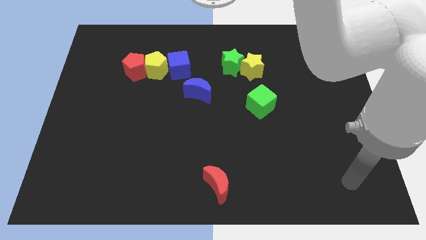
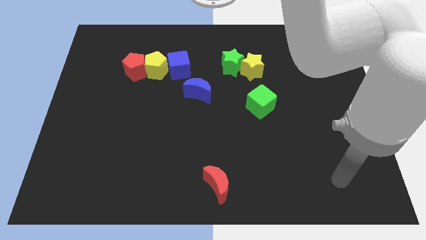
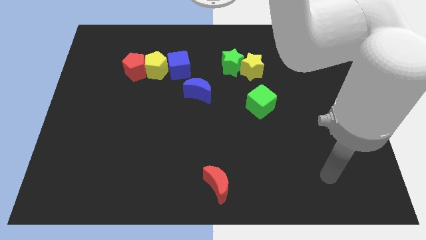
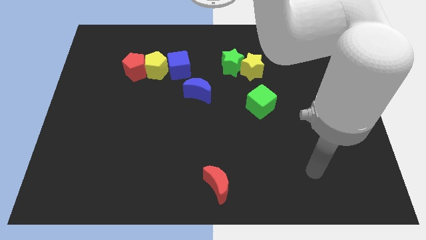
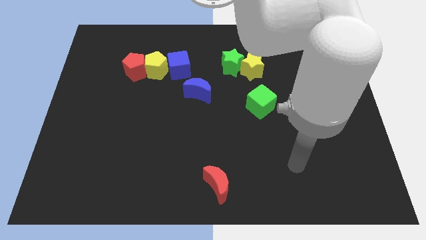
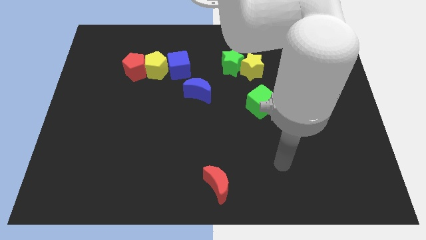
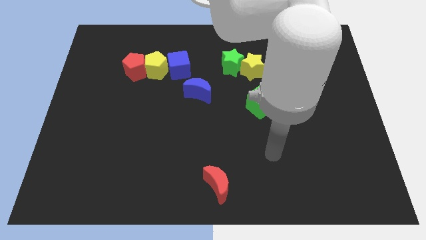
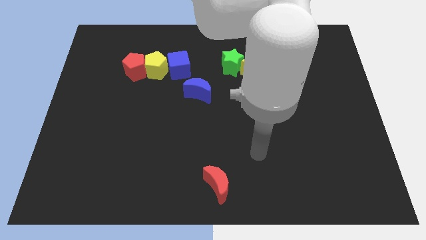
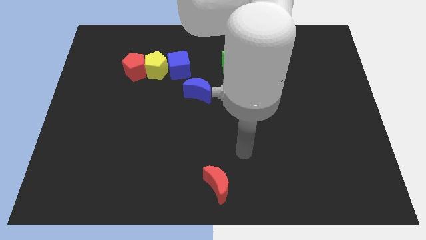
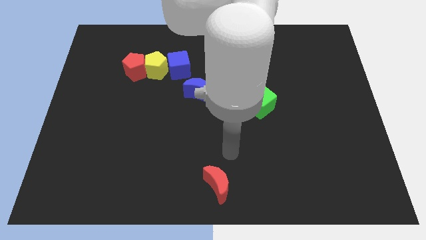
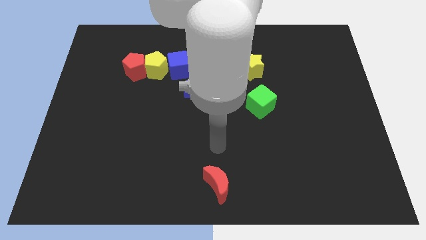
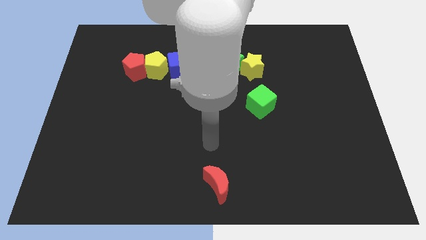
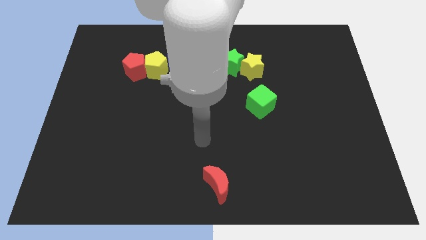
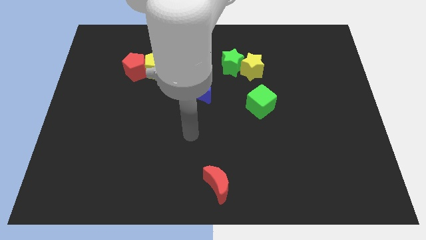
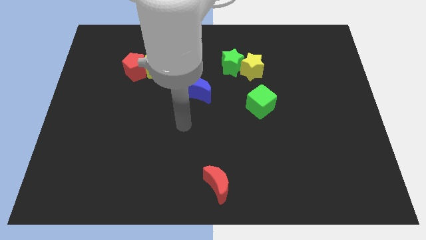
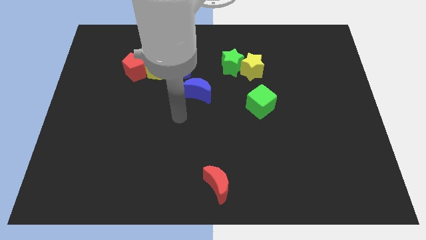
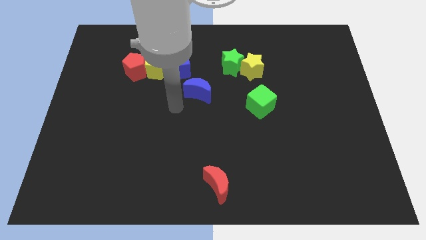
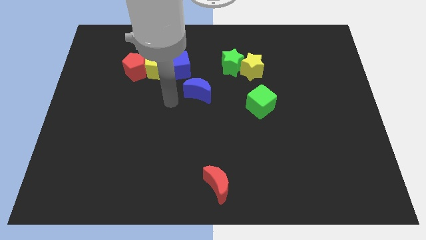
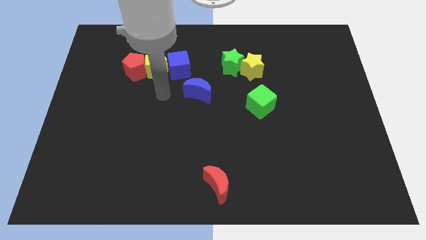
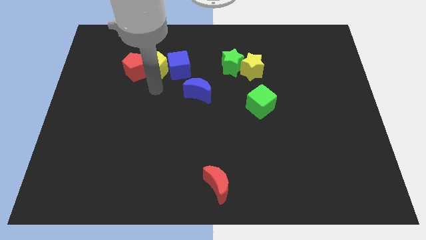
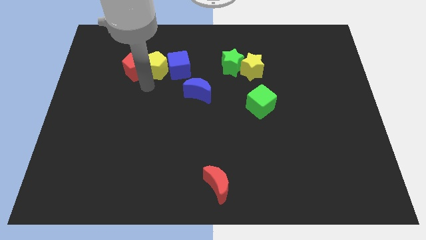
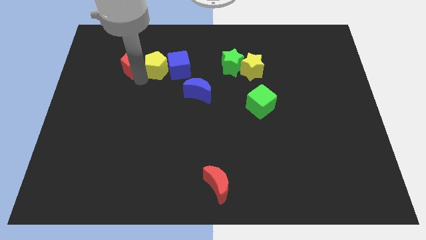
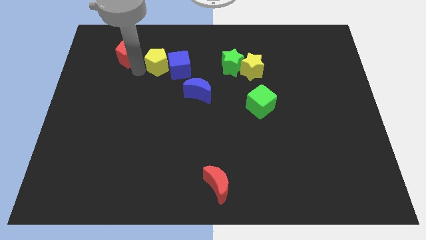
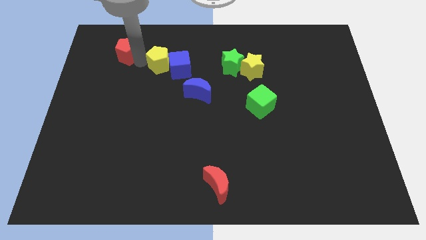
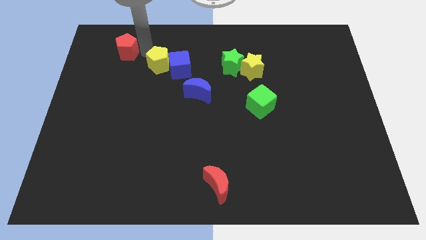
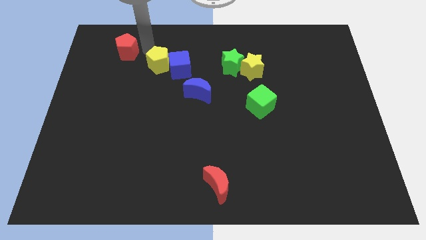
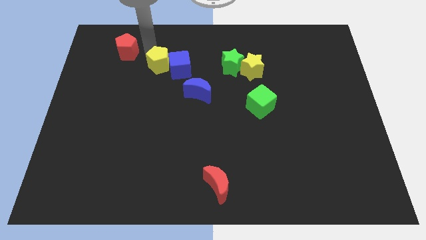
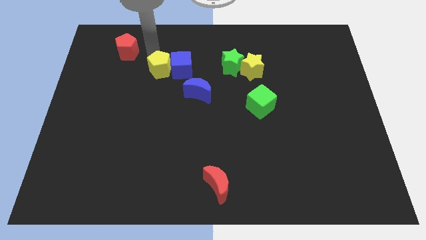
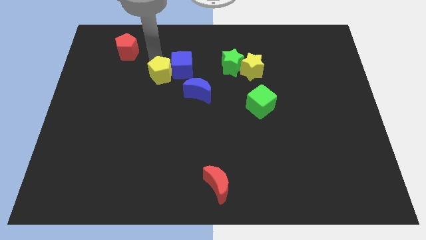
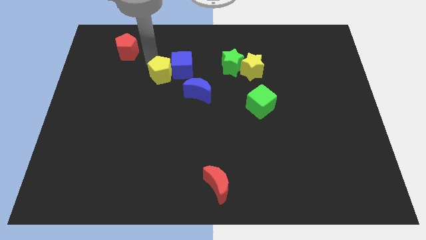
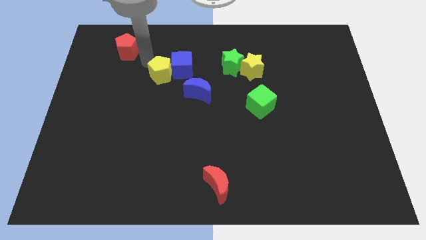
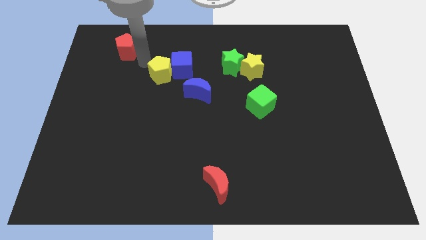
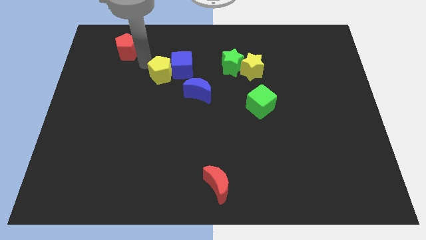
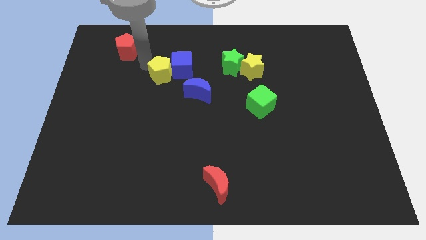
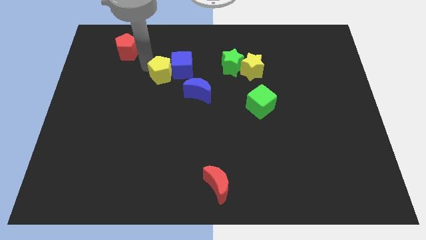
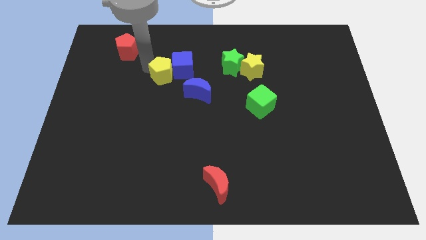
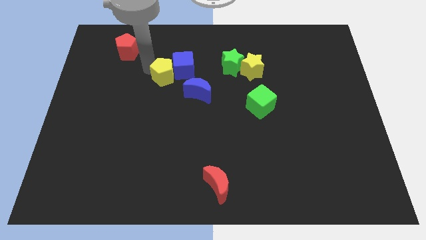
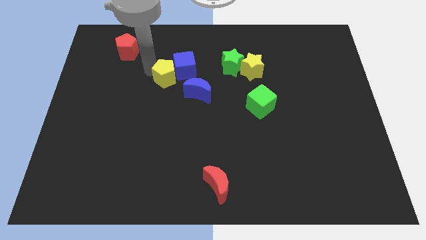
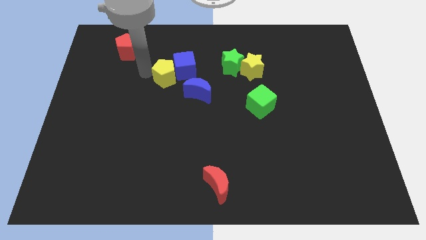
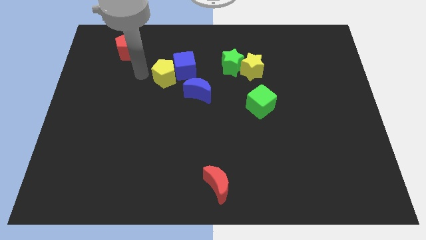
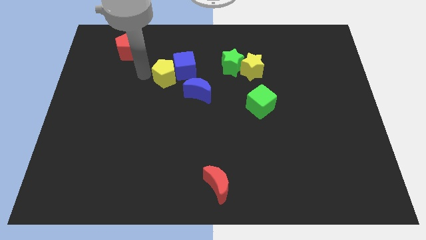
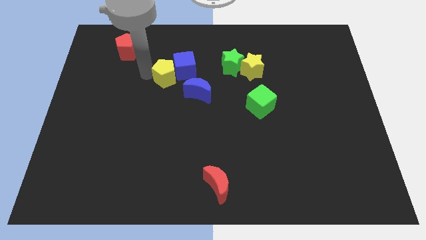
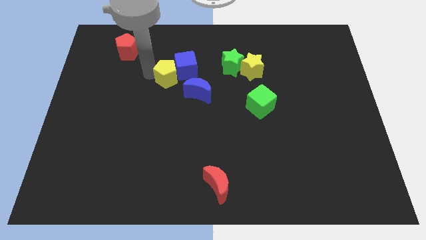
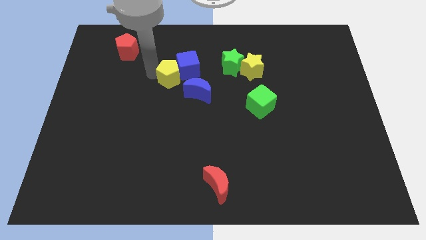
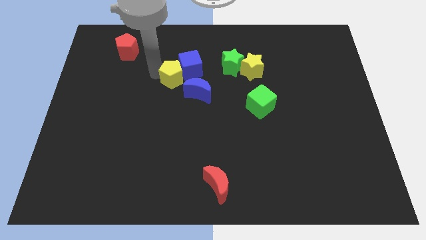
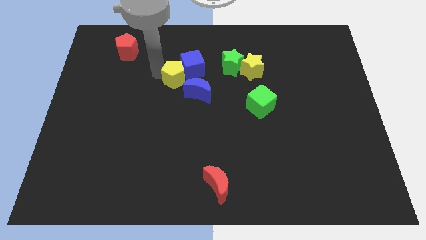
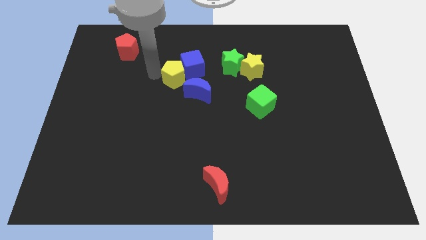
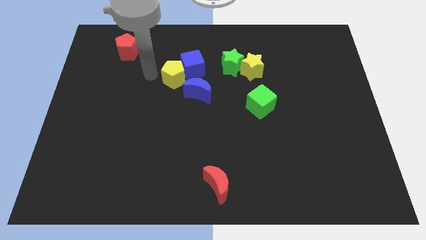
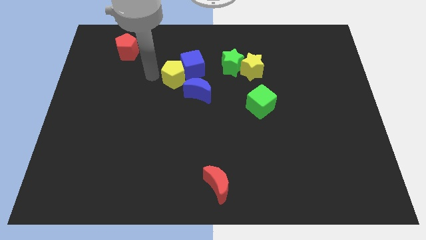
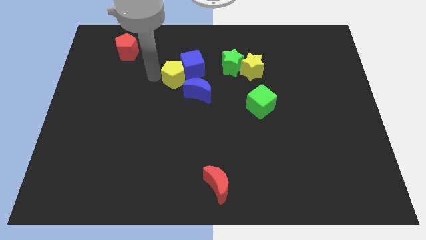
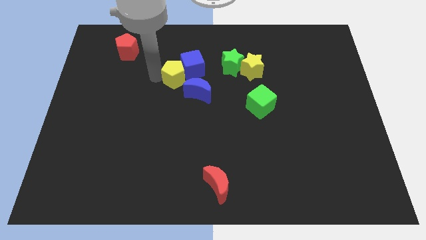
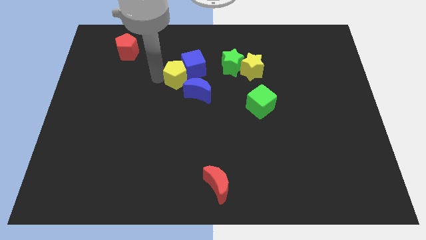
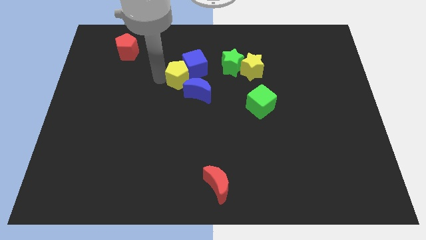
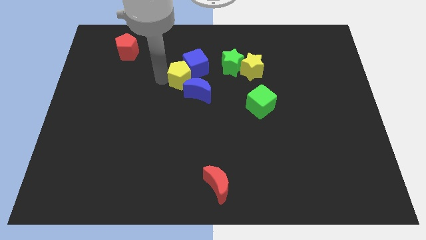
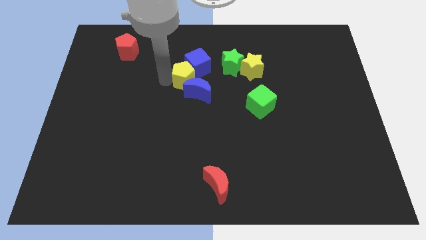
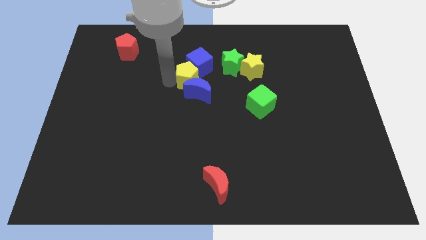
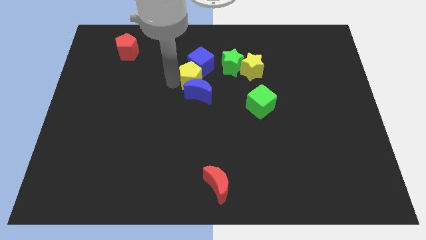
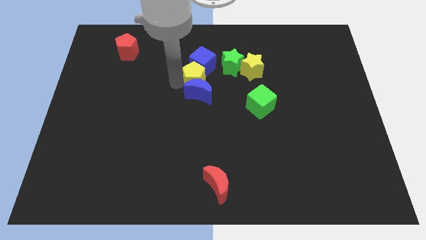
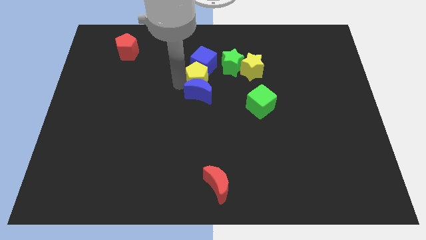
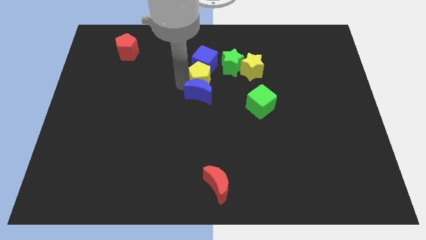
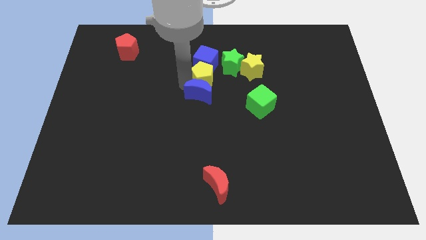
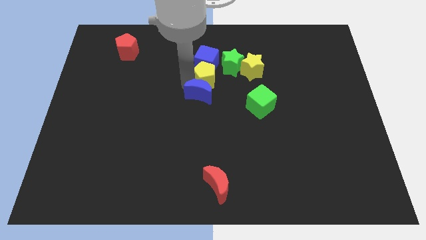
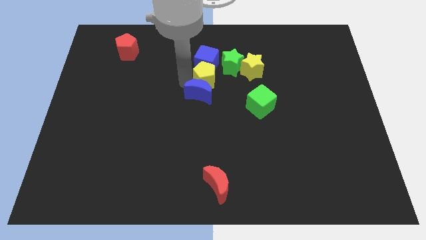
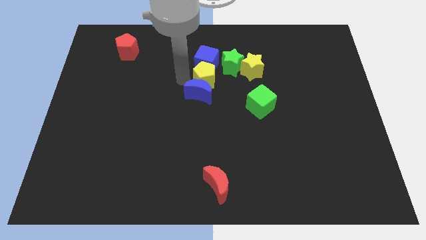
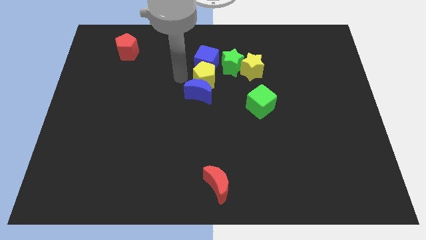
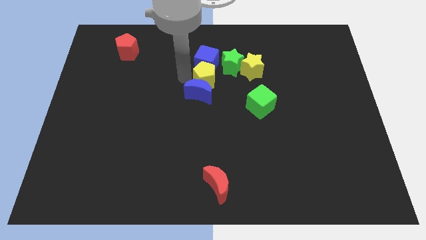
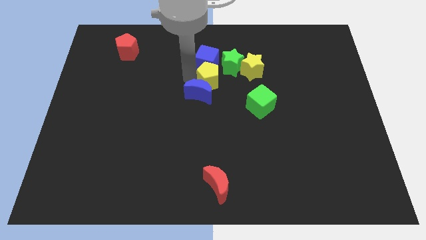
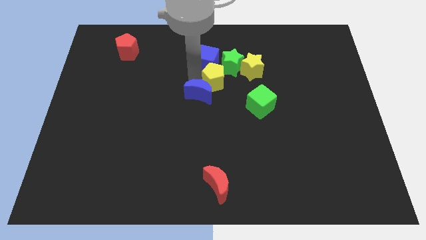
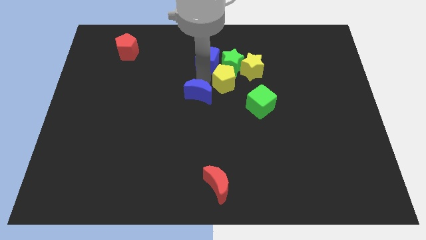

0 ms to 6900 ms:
push the yellow pentagon to the bottom right side of the green star
